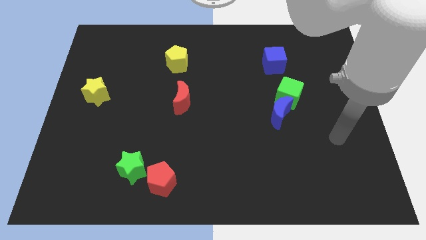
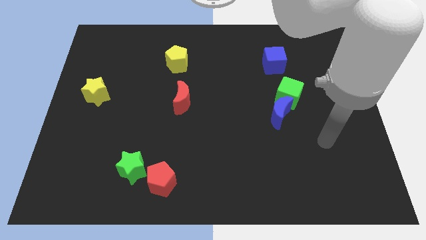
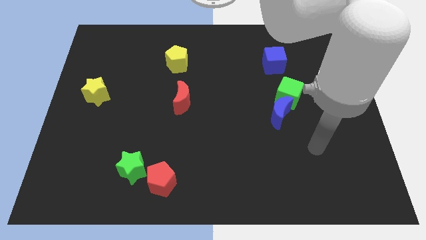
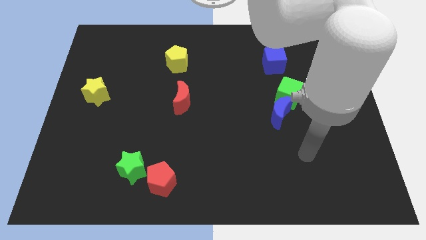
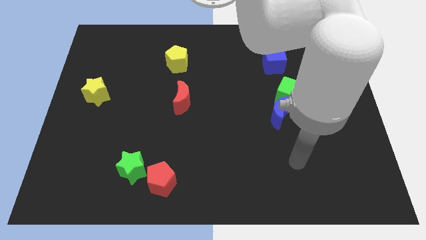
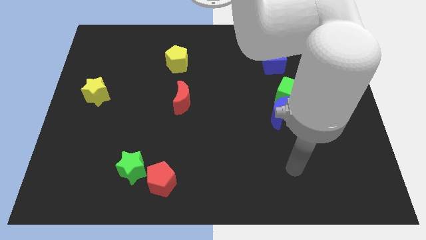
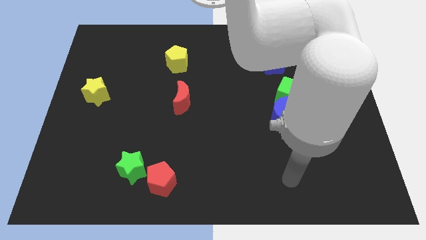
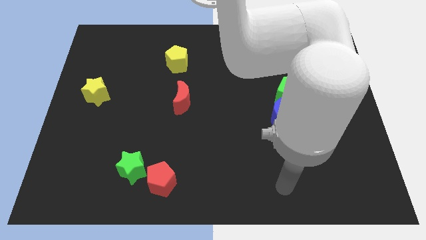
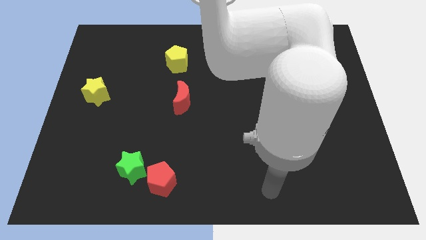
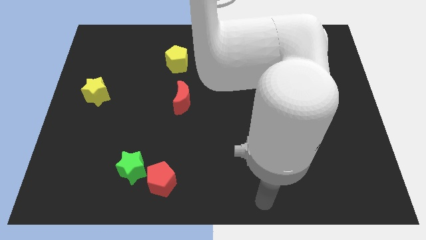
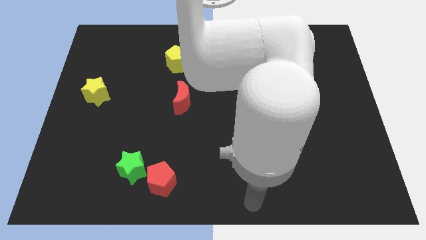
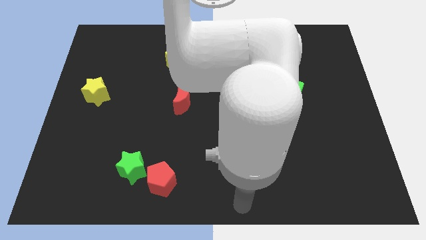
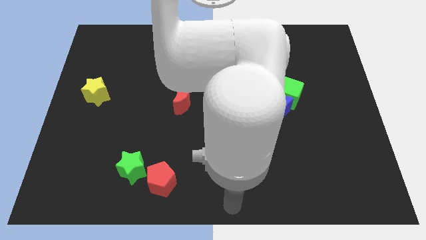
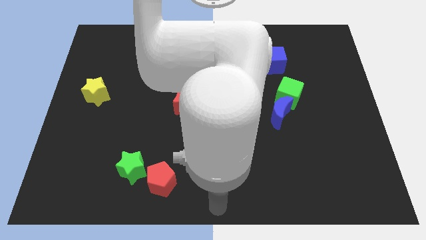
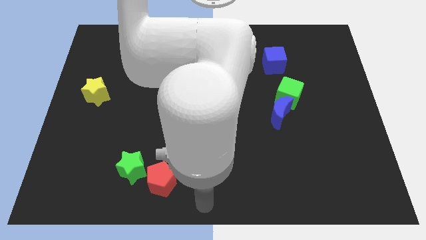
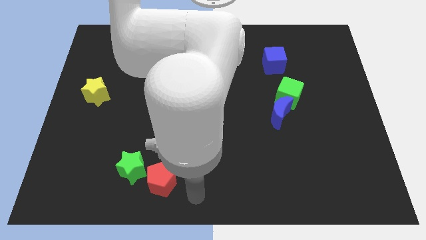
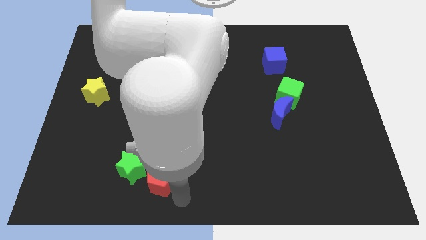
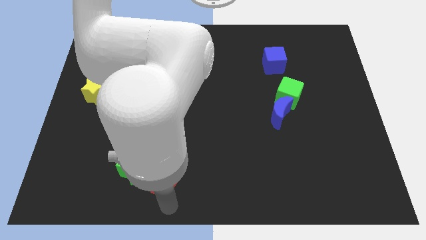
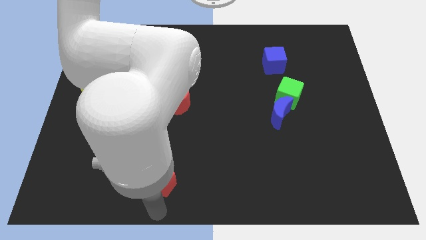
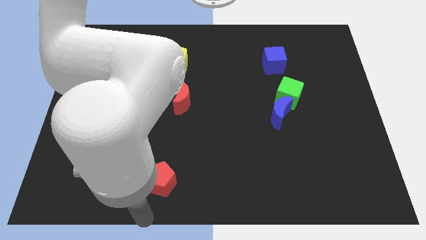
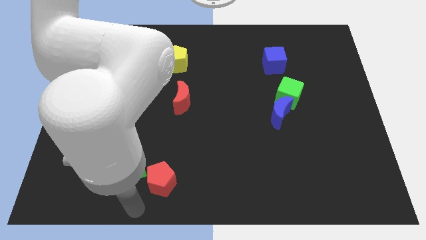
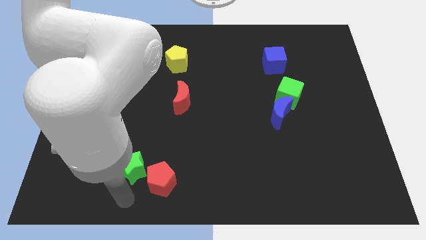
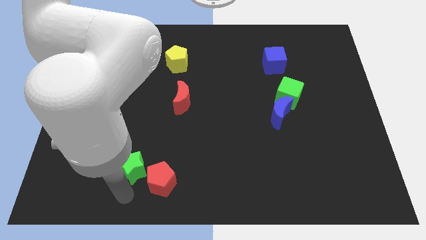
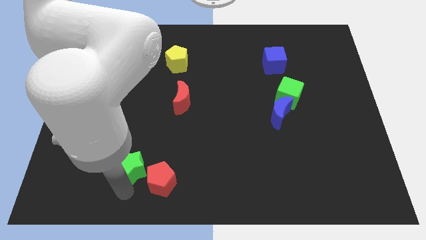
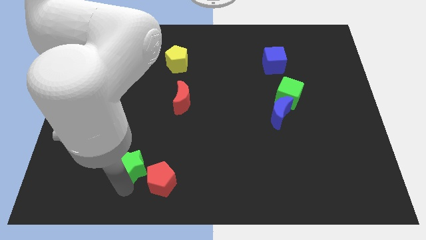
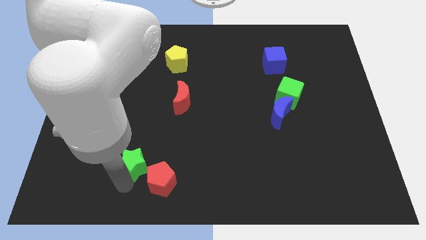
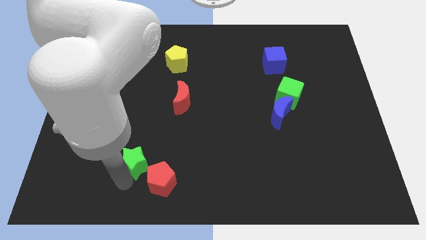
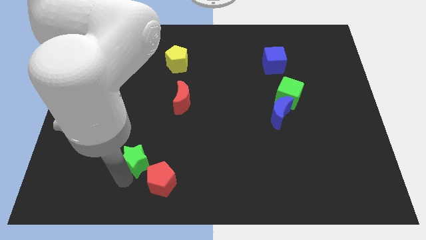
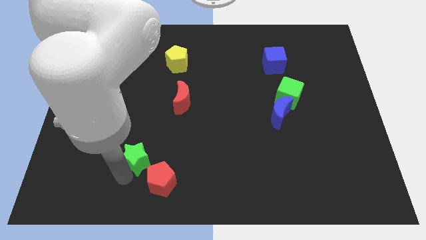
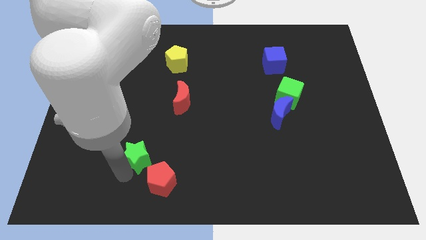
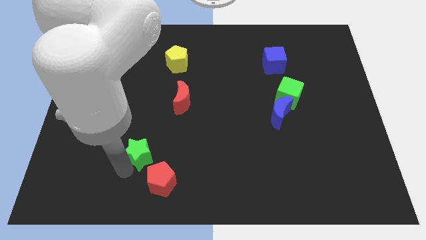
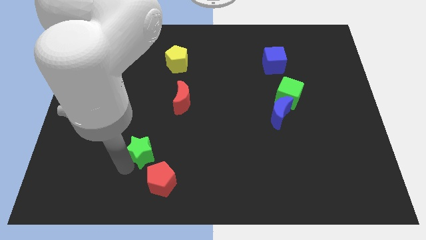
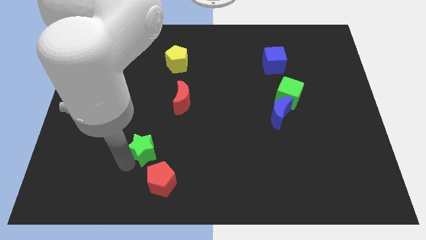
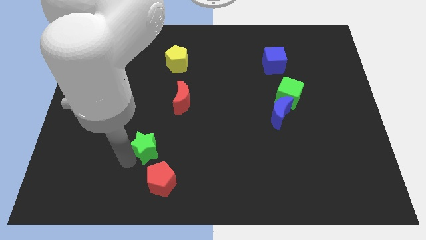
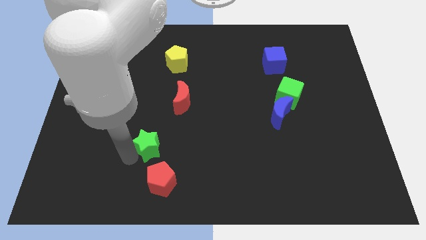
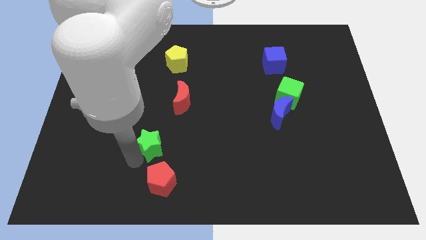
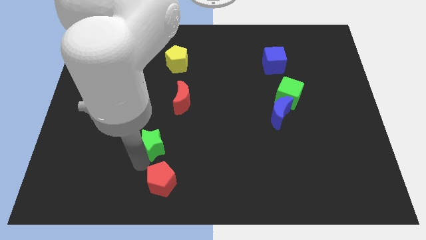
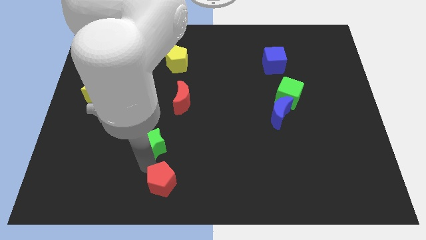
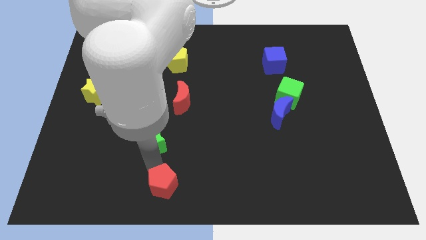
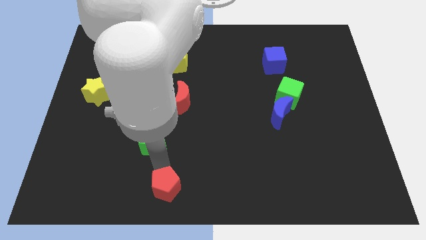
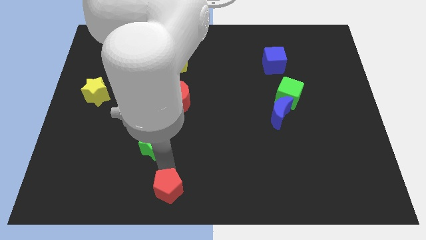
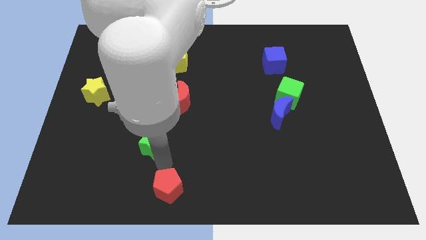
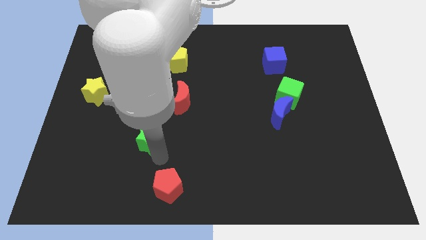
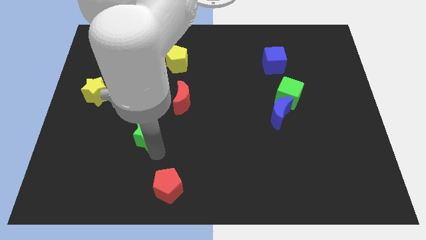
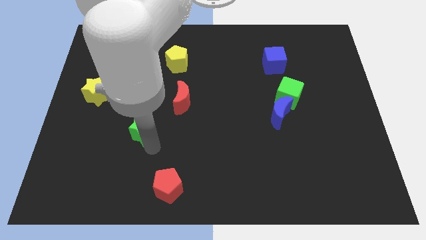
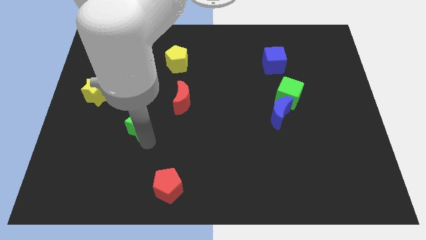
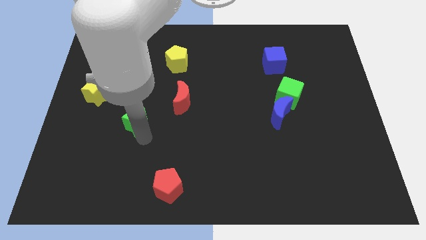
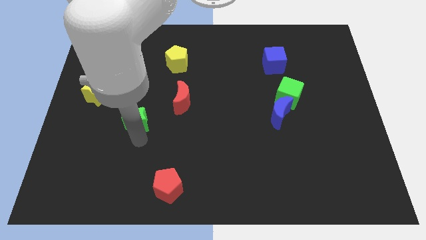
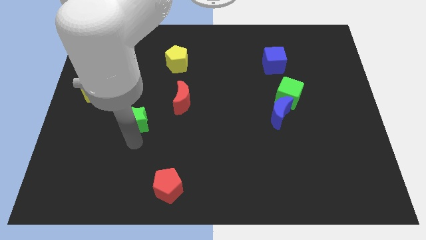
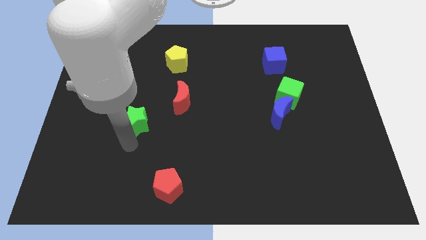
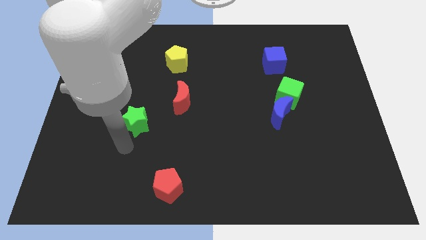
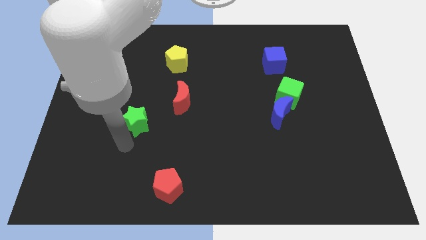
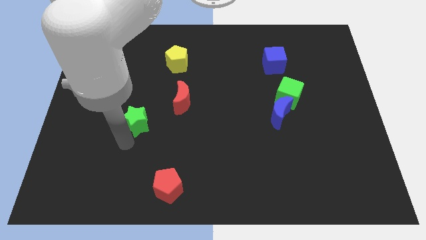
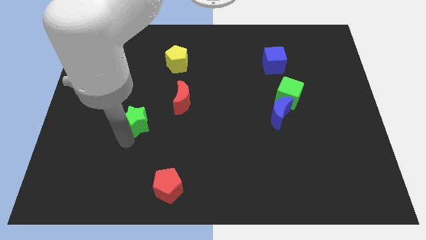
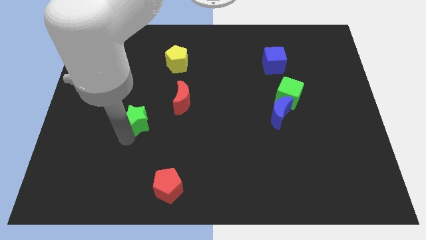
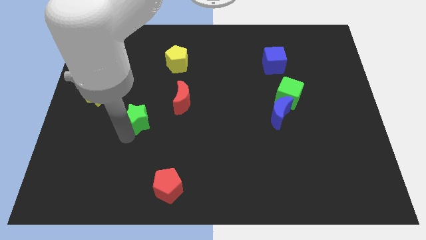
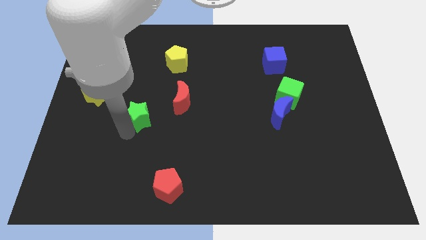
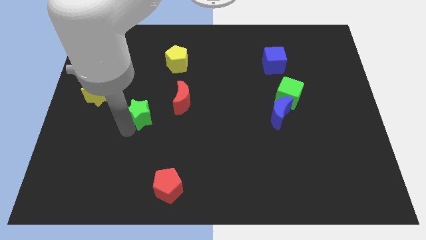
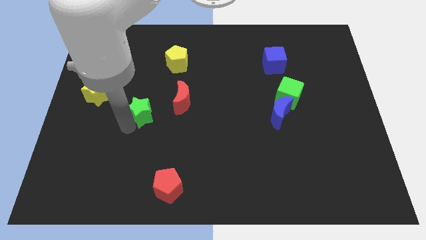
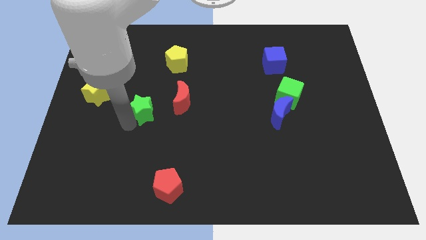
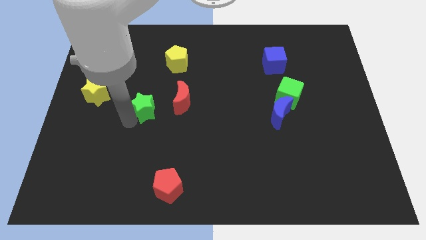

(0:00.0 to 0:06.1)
put the green star to the right side of the yellow star
